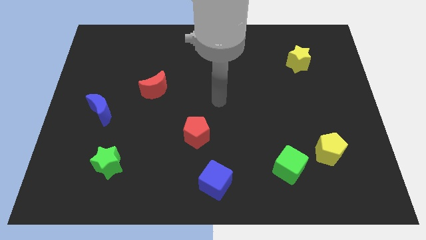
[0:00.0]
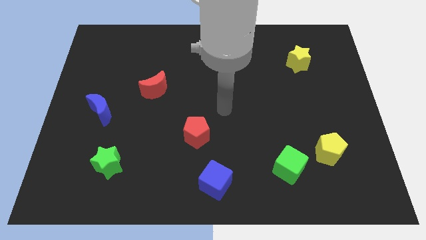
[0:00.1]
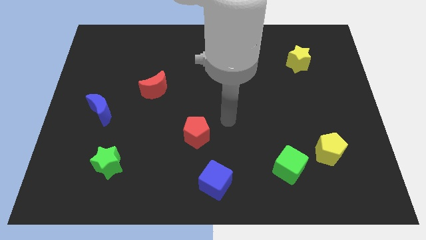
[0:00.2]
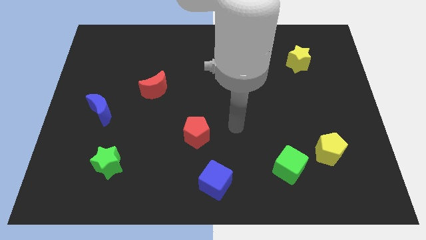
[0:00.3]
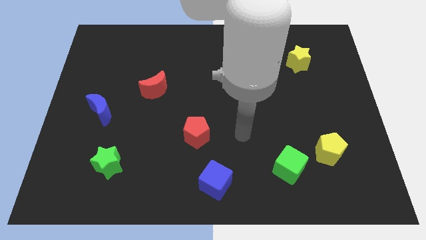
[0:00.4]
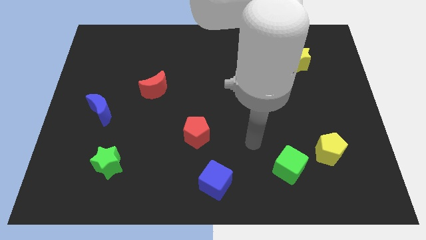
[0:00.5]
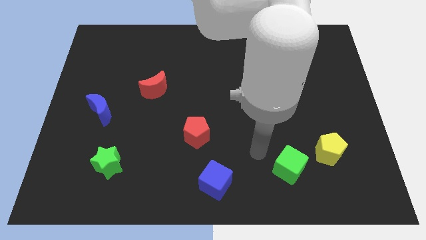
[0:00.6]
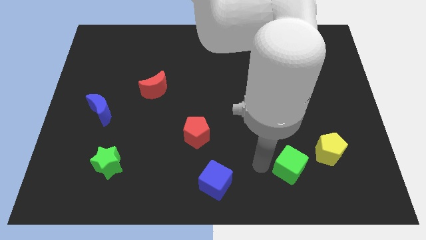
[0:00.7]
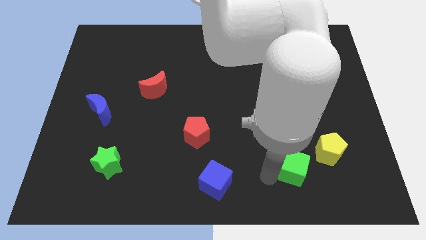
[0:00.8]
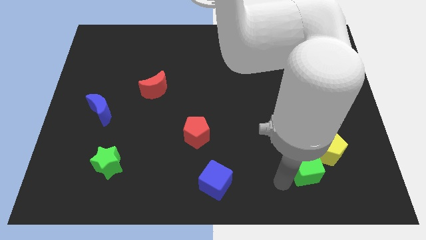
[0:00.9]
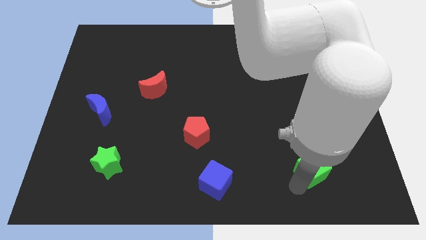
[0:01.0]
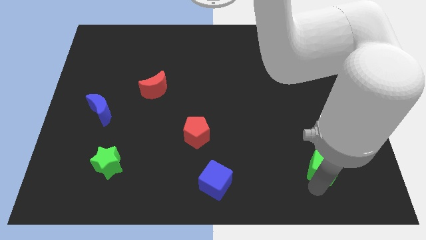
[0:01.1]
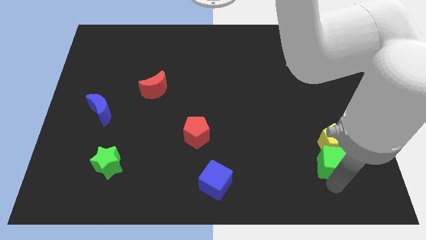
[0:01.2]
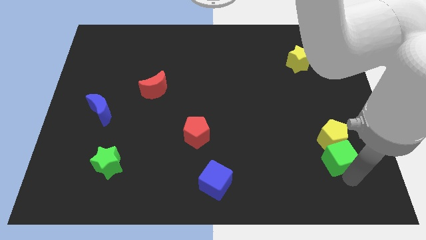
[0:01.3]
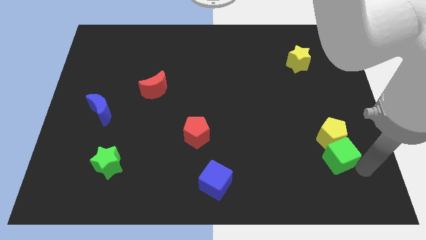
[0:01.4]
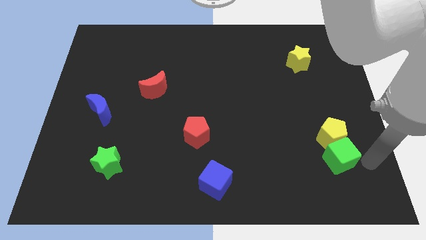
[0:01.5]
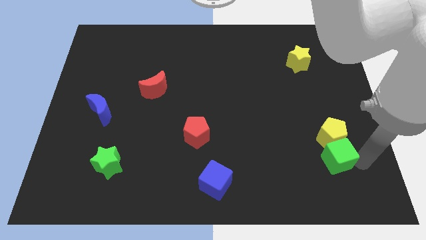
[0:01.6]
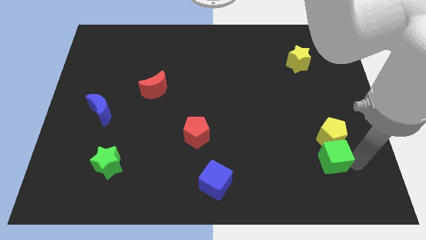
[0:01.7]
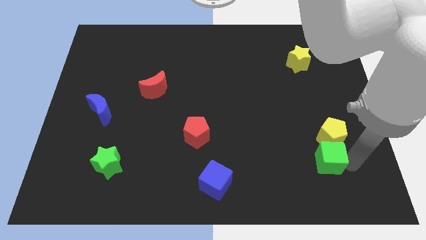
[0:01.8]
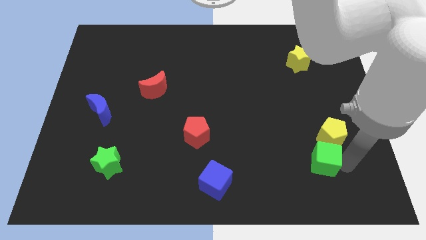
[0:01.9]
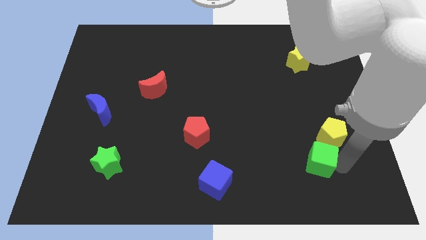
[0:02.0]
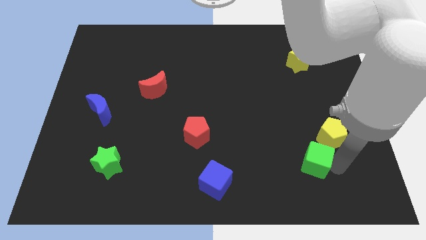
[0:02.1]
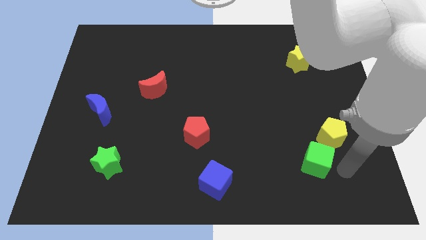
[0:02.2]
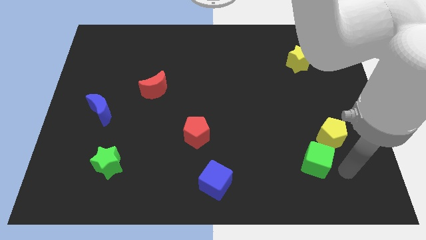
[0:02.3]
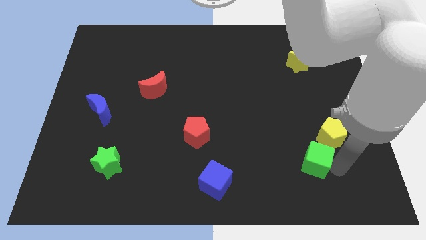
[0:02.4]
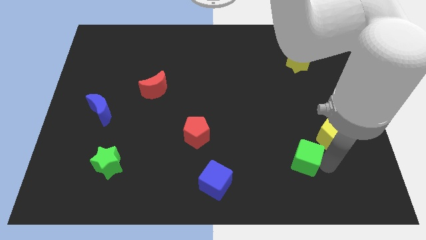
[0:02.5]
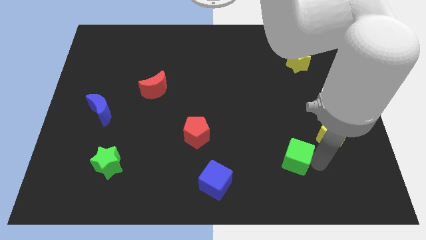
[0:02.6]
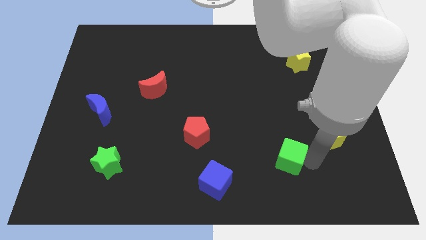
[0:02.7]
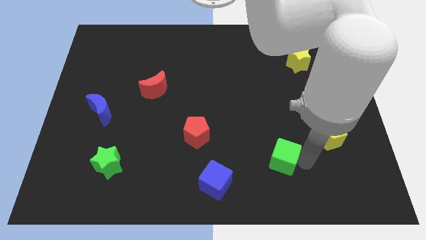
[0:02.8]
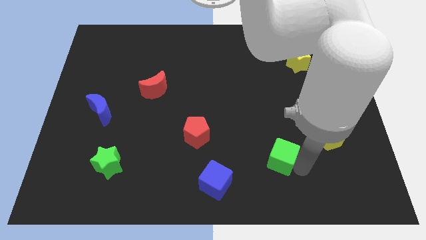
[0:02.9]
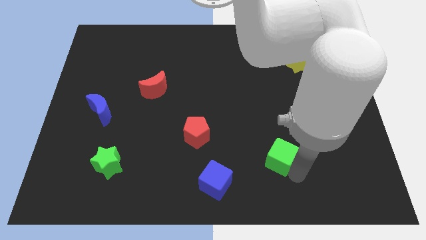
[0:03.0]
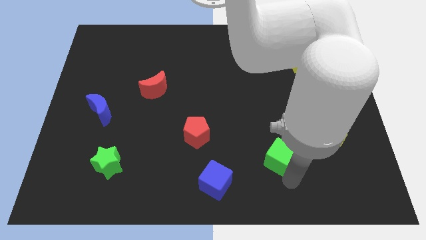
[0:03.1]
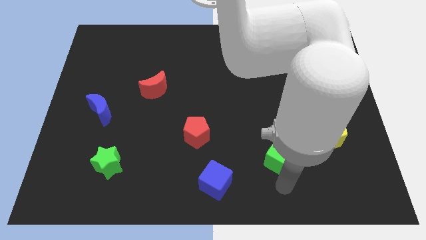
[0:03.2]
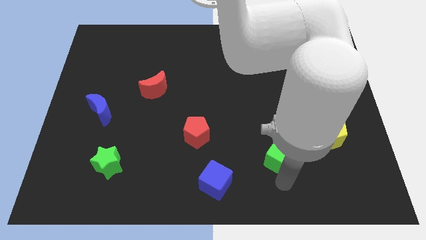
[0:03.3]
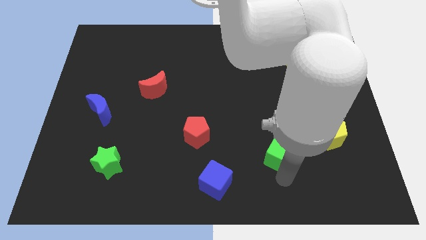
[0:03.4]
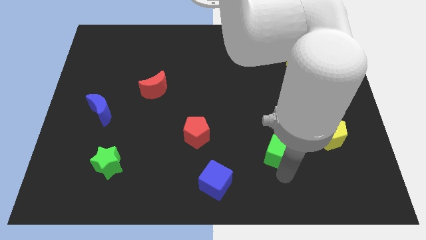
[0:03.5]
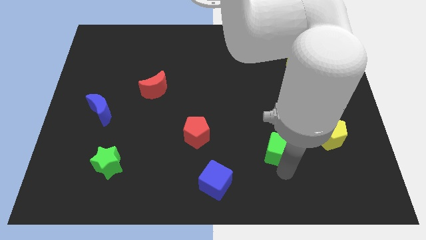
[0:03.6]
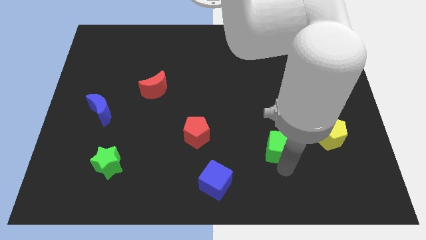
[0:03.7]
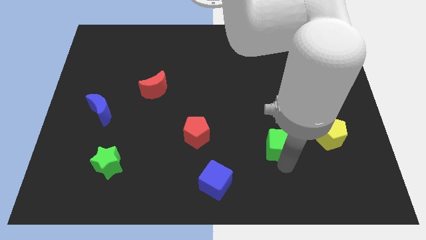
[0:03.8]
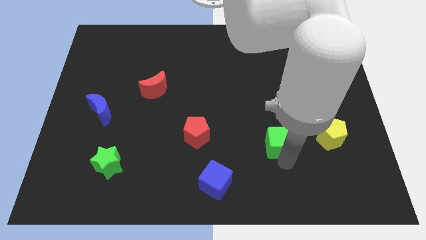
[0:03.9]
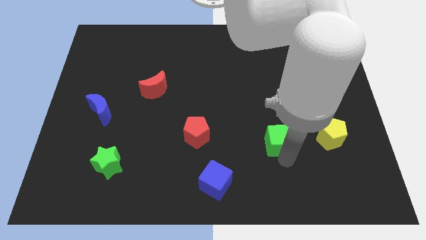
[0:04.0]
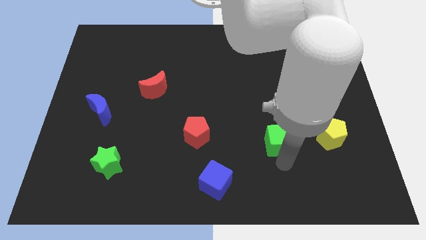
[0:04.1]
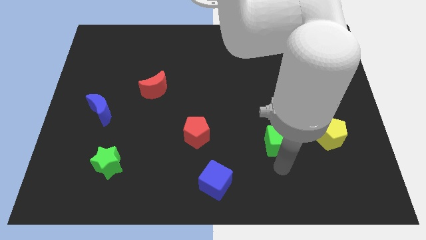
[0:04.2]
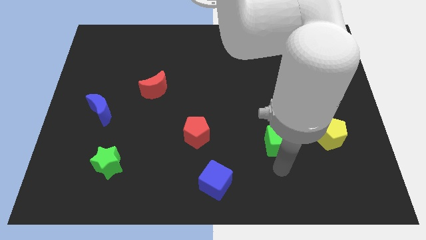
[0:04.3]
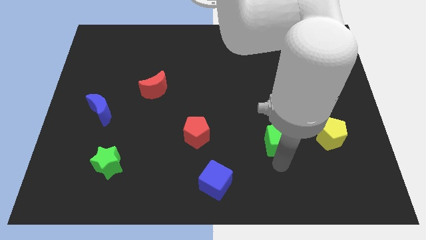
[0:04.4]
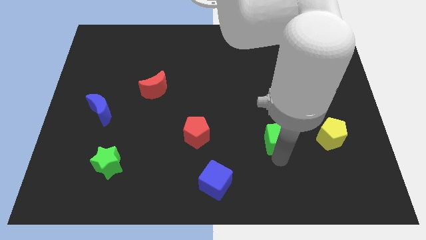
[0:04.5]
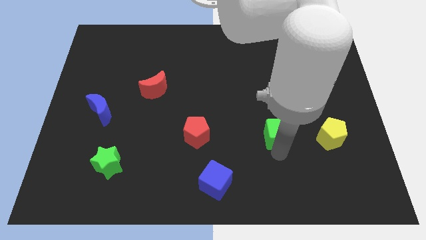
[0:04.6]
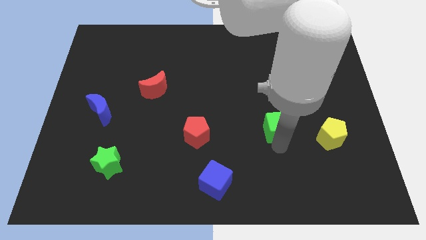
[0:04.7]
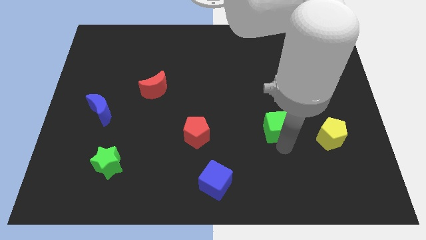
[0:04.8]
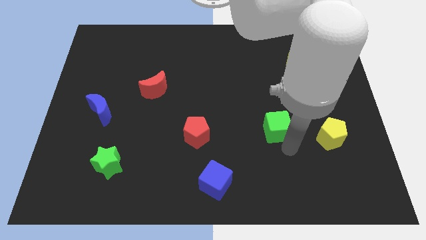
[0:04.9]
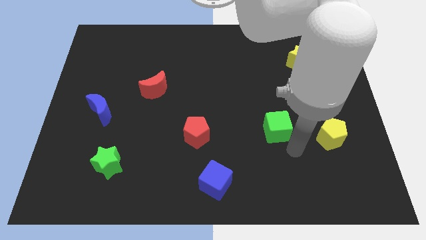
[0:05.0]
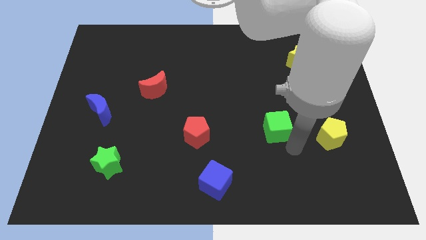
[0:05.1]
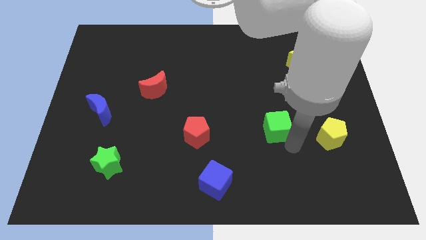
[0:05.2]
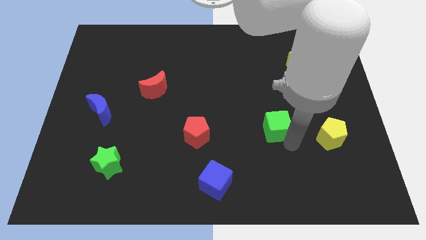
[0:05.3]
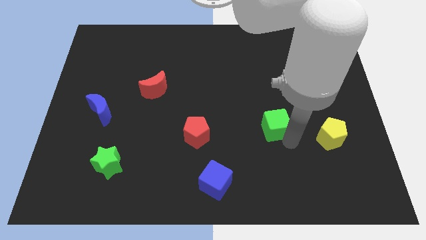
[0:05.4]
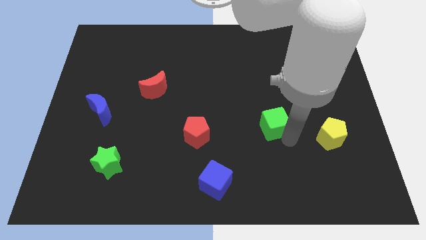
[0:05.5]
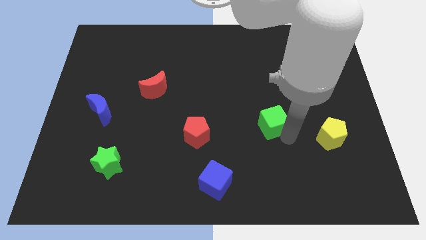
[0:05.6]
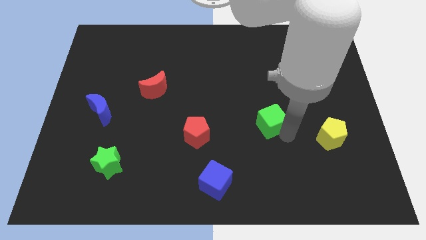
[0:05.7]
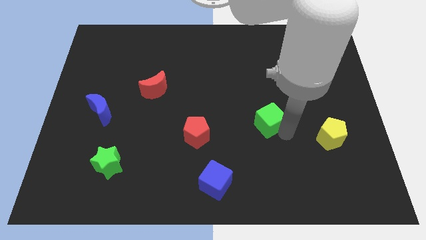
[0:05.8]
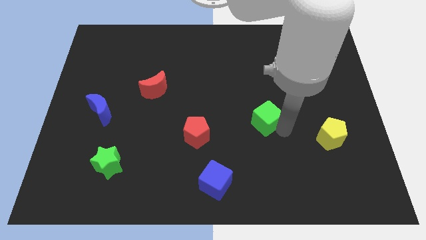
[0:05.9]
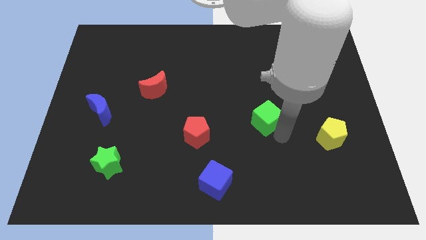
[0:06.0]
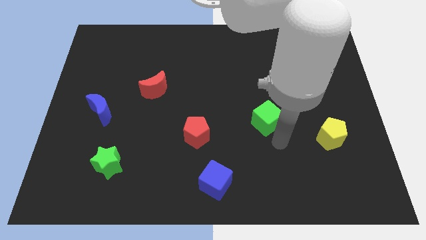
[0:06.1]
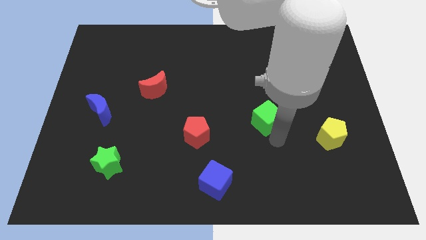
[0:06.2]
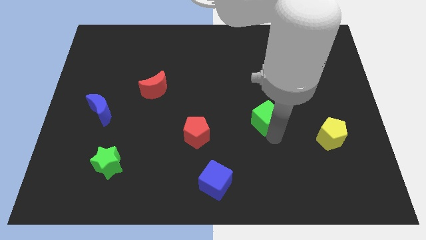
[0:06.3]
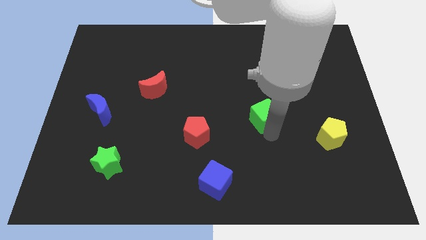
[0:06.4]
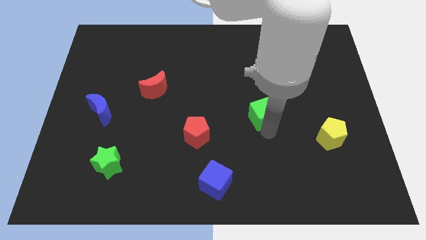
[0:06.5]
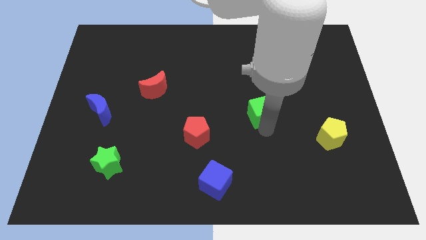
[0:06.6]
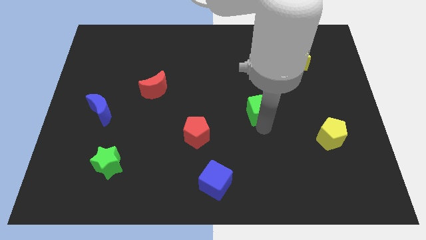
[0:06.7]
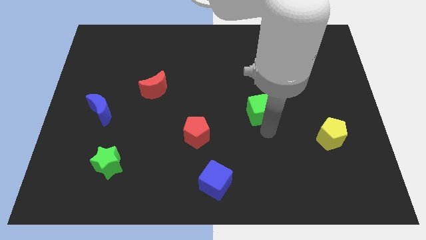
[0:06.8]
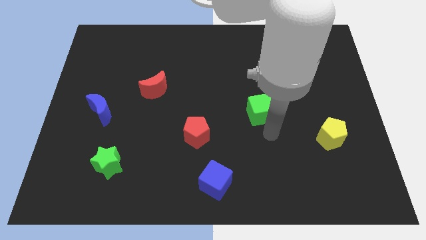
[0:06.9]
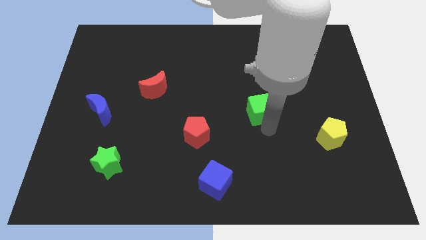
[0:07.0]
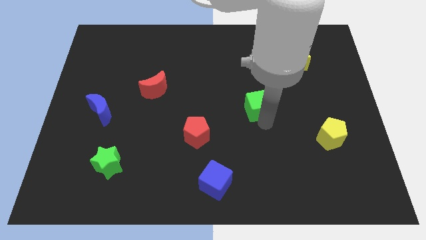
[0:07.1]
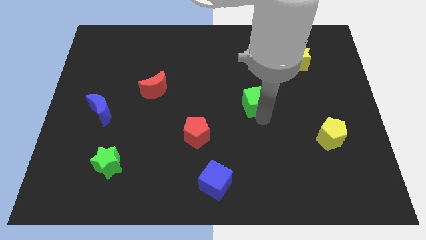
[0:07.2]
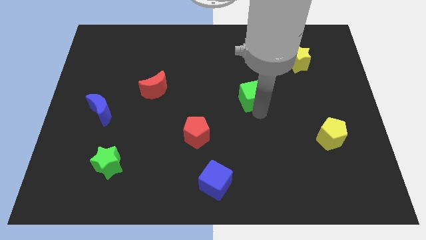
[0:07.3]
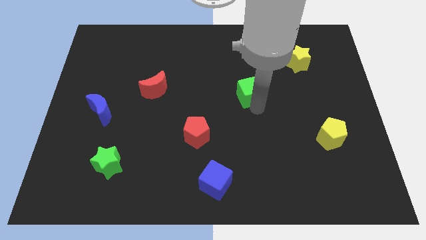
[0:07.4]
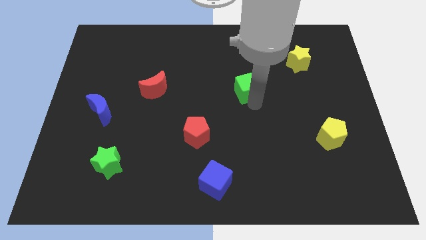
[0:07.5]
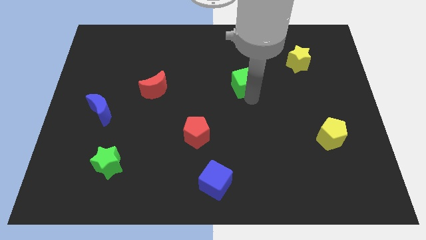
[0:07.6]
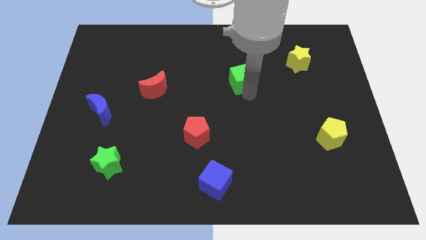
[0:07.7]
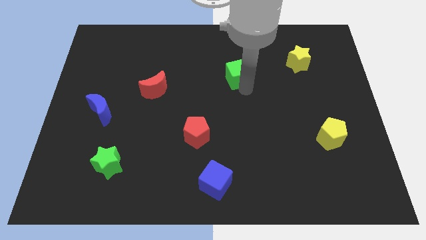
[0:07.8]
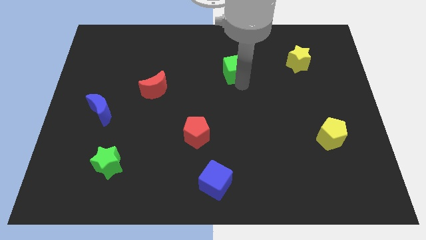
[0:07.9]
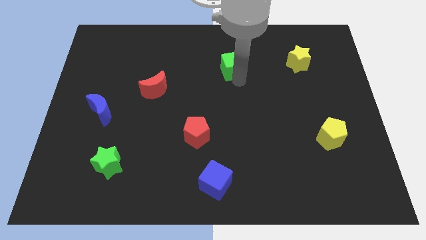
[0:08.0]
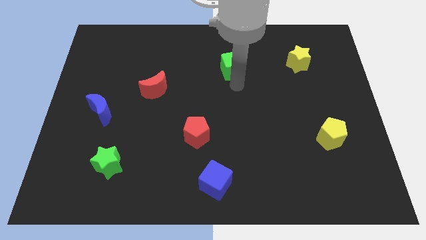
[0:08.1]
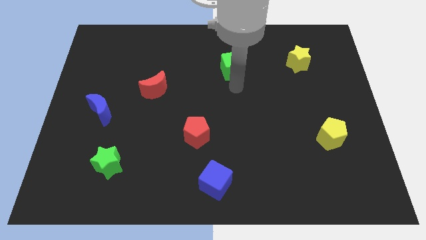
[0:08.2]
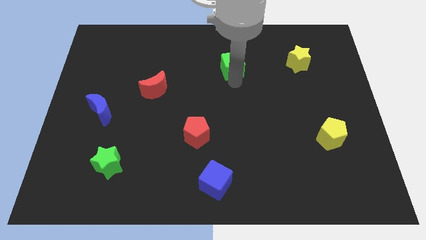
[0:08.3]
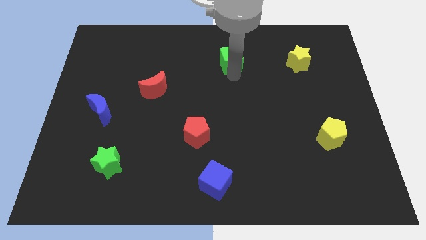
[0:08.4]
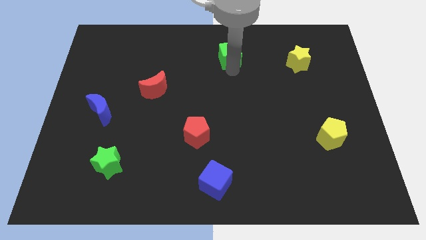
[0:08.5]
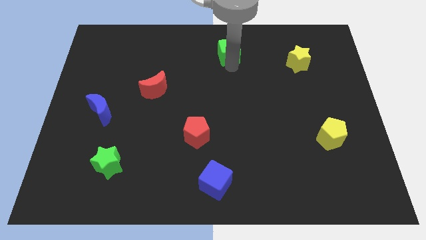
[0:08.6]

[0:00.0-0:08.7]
move the green cube to the top
